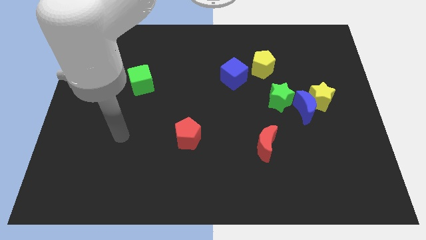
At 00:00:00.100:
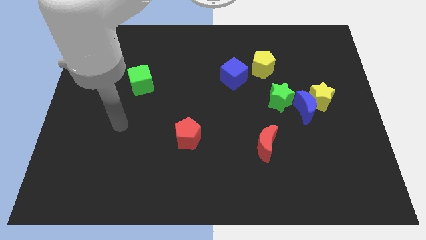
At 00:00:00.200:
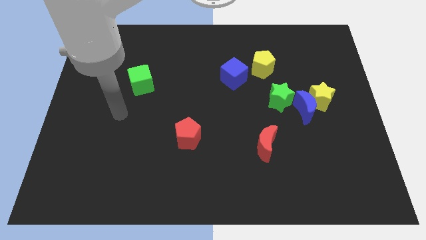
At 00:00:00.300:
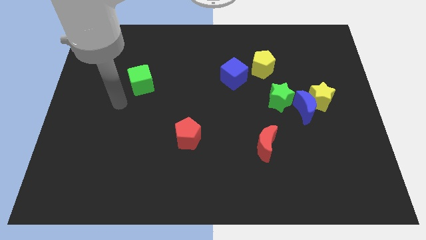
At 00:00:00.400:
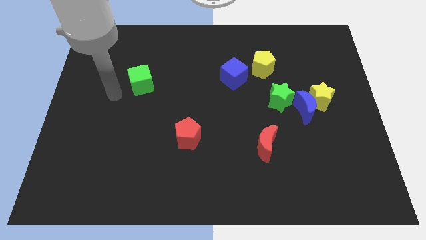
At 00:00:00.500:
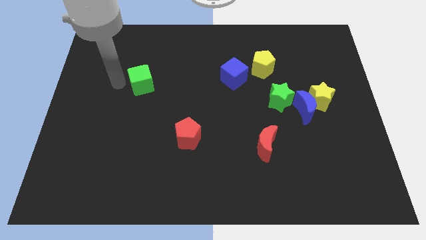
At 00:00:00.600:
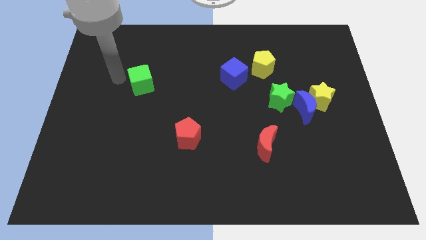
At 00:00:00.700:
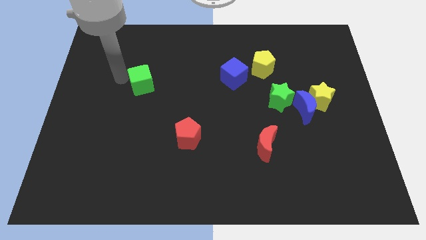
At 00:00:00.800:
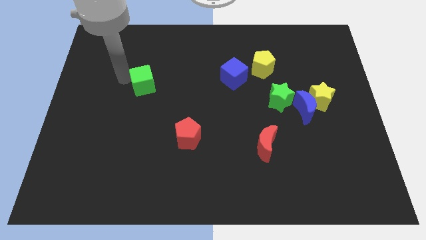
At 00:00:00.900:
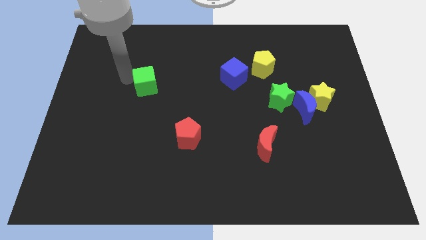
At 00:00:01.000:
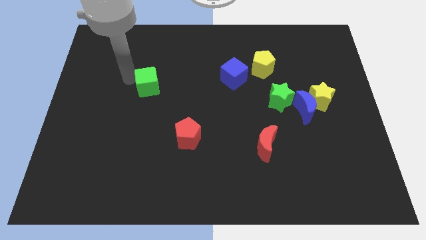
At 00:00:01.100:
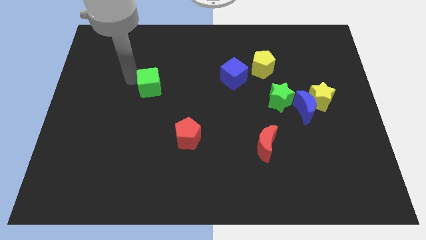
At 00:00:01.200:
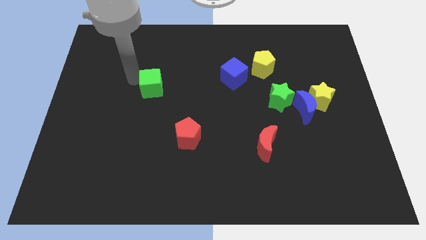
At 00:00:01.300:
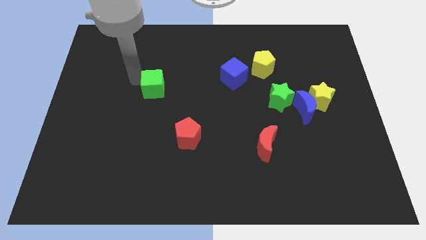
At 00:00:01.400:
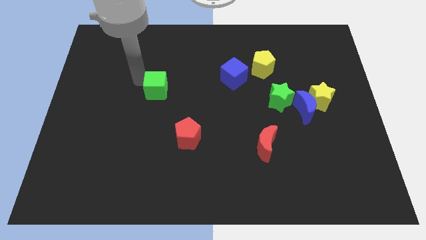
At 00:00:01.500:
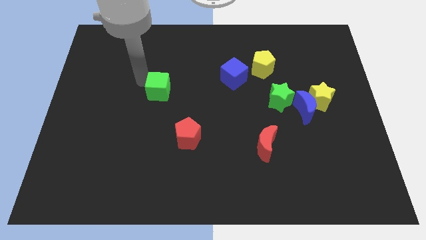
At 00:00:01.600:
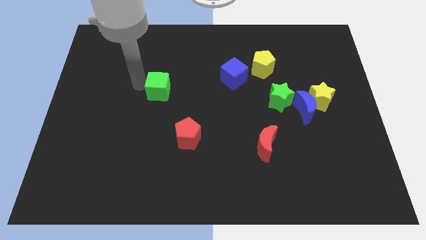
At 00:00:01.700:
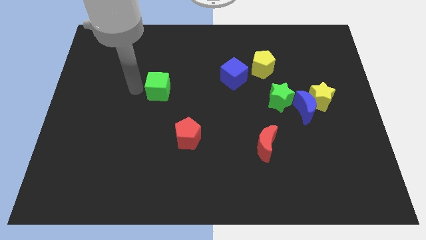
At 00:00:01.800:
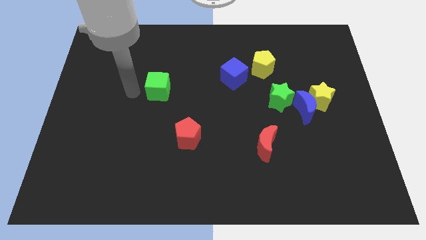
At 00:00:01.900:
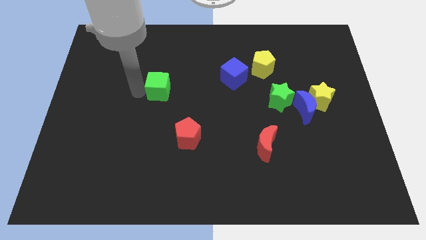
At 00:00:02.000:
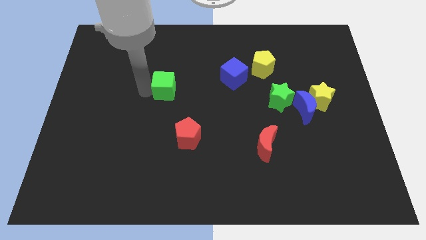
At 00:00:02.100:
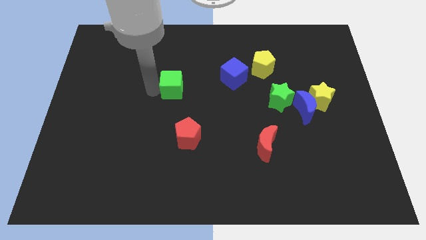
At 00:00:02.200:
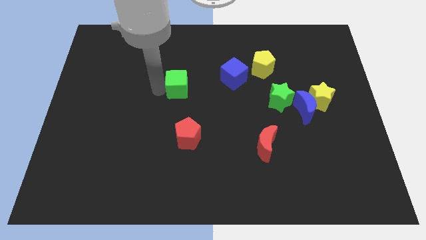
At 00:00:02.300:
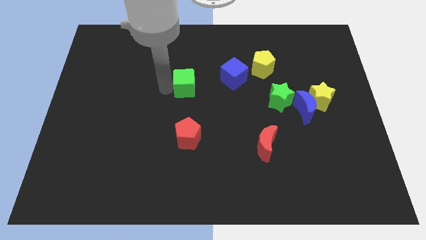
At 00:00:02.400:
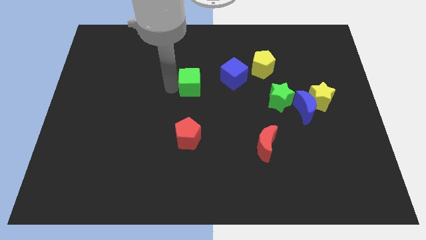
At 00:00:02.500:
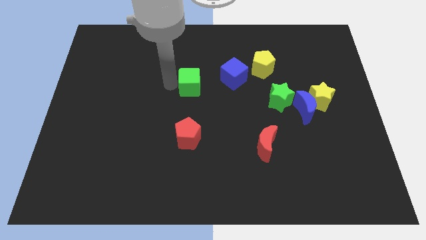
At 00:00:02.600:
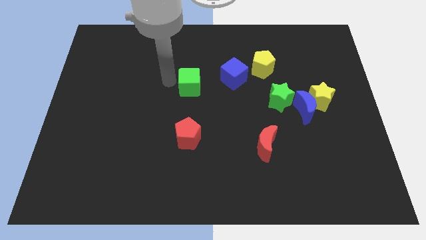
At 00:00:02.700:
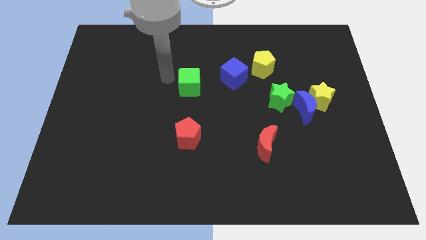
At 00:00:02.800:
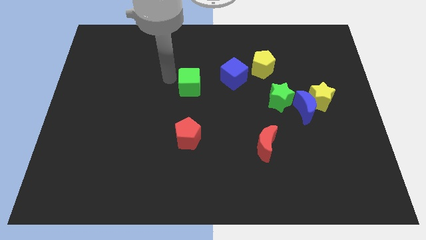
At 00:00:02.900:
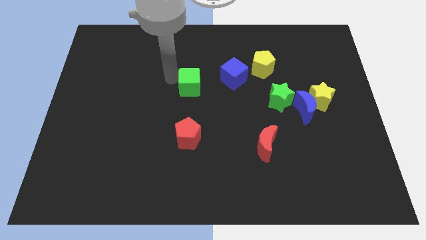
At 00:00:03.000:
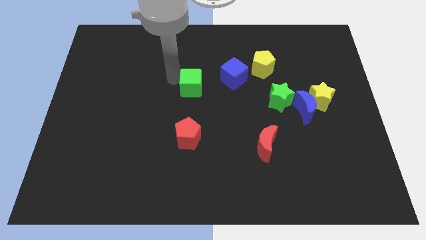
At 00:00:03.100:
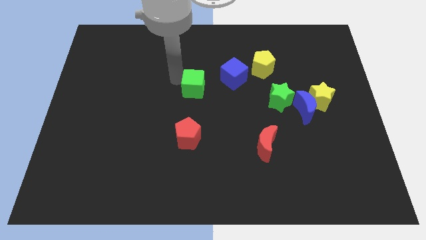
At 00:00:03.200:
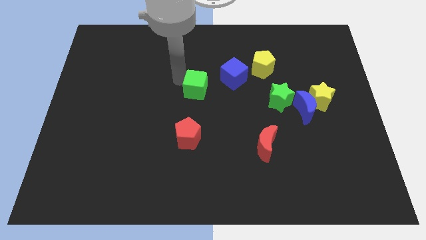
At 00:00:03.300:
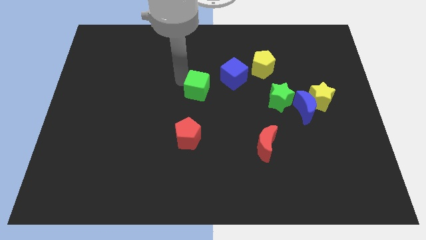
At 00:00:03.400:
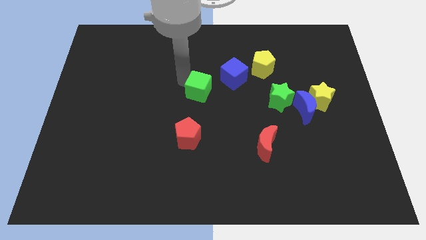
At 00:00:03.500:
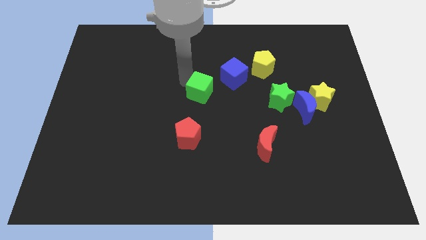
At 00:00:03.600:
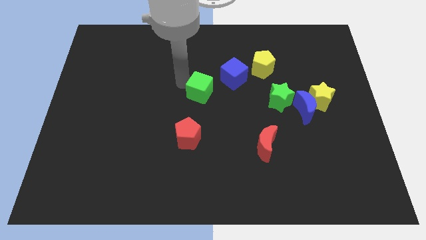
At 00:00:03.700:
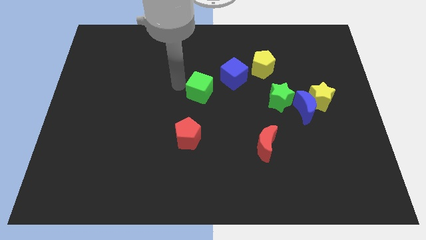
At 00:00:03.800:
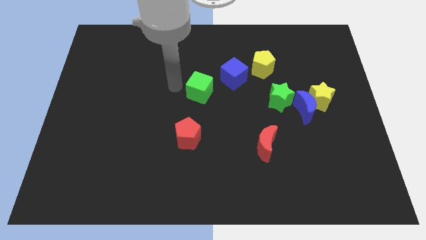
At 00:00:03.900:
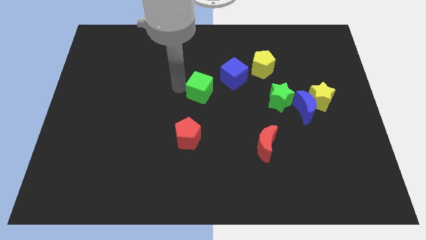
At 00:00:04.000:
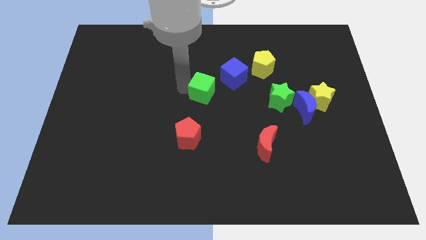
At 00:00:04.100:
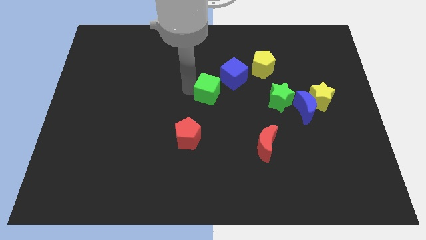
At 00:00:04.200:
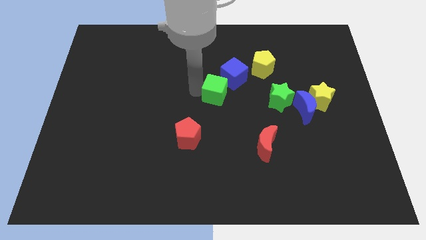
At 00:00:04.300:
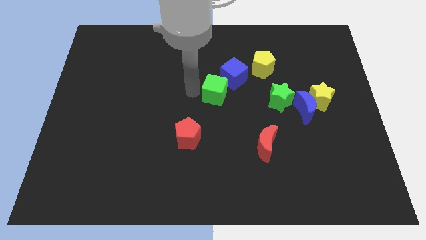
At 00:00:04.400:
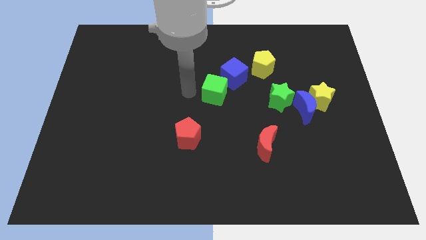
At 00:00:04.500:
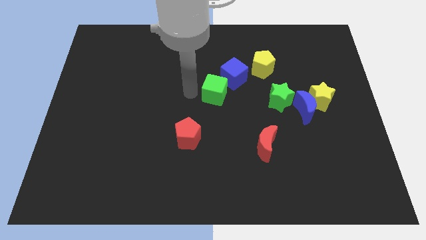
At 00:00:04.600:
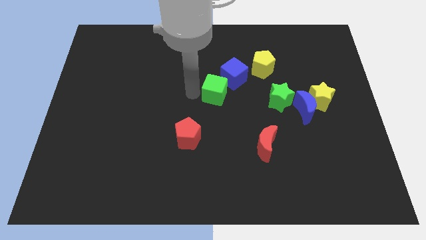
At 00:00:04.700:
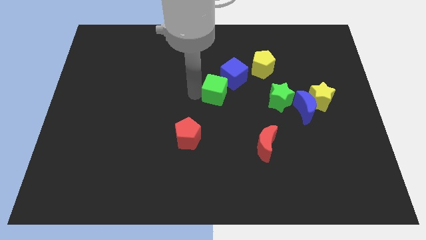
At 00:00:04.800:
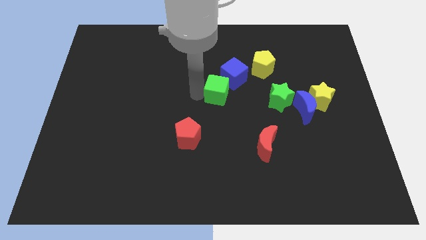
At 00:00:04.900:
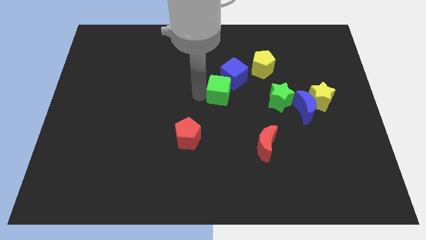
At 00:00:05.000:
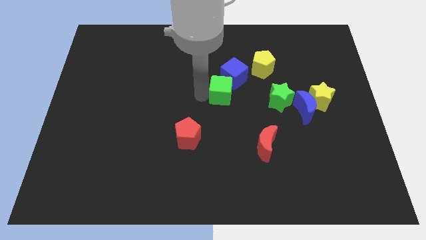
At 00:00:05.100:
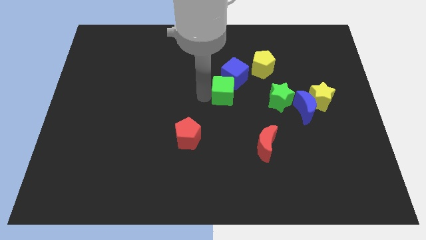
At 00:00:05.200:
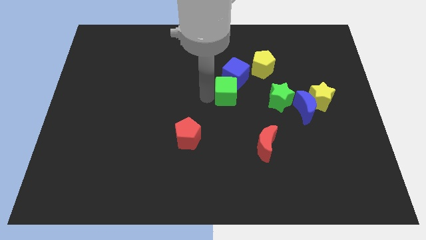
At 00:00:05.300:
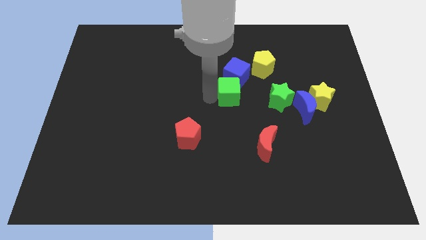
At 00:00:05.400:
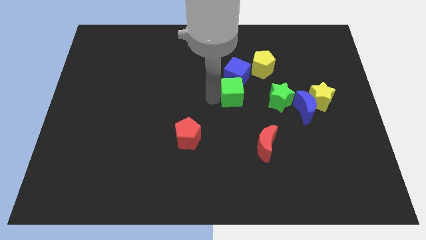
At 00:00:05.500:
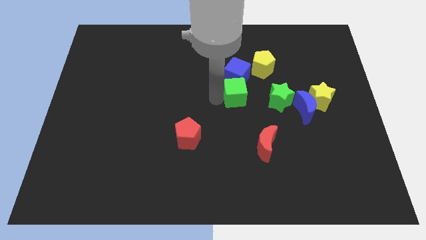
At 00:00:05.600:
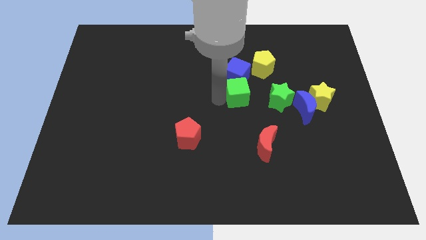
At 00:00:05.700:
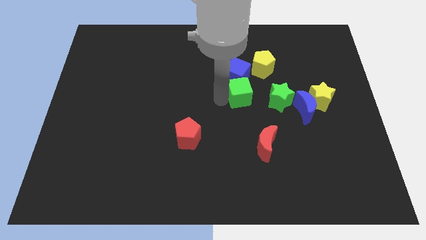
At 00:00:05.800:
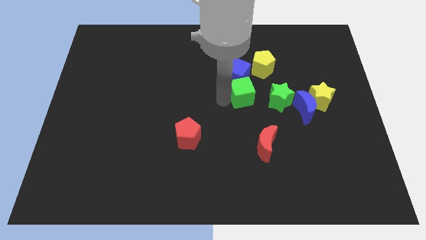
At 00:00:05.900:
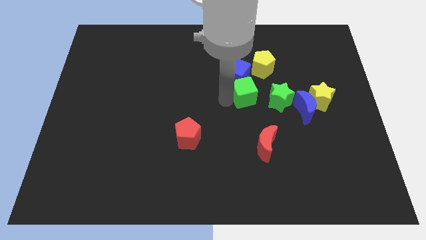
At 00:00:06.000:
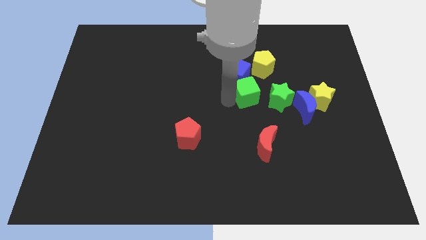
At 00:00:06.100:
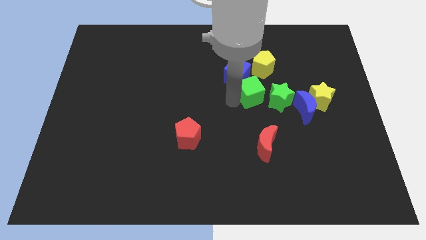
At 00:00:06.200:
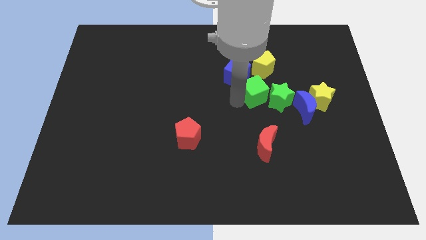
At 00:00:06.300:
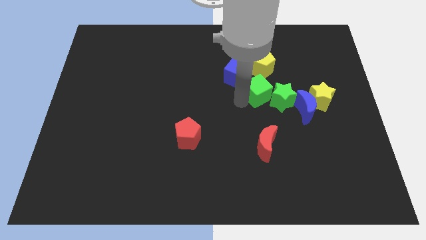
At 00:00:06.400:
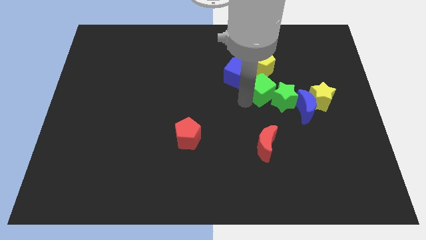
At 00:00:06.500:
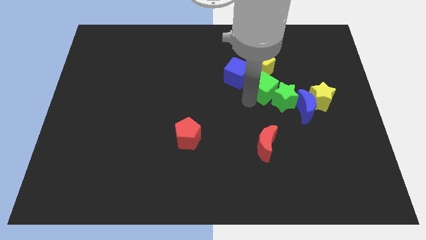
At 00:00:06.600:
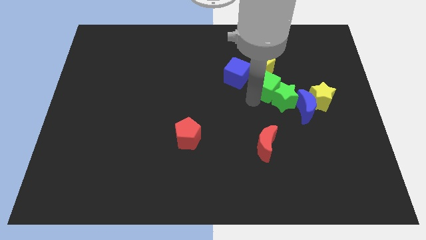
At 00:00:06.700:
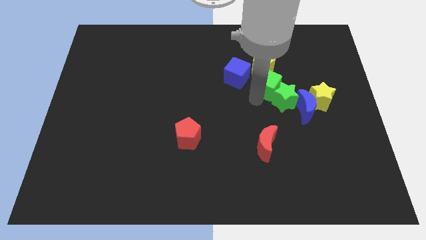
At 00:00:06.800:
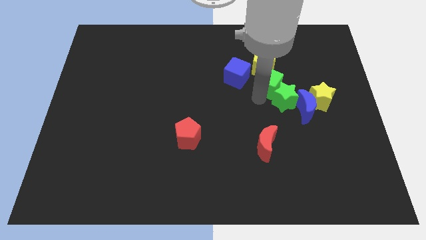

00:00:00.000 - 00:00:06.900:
move the green cube next to the yellow pentagon

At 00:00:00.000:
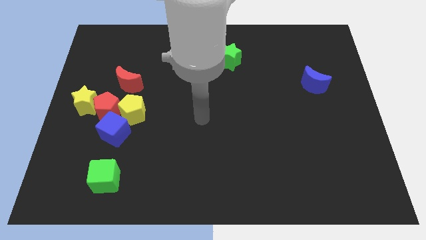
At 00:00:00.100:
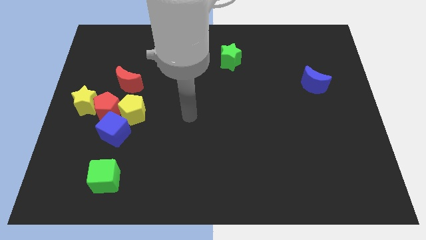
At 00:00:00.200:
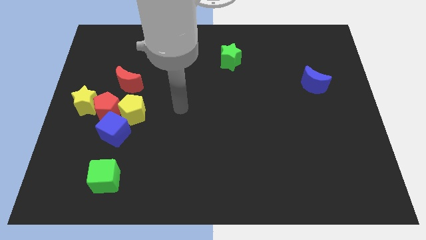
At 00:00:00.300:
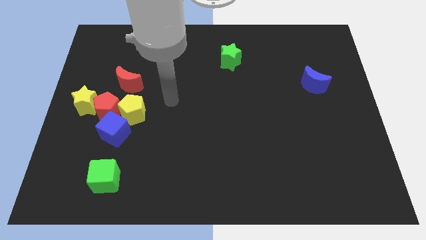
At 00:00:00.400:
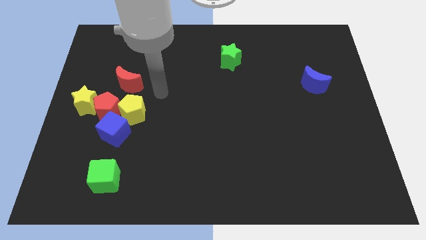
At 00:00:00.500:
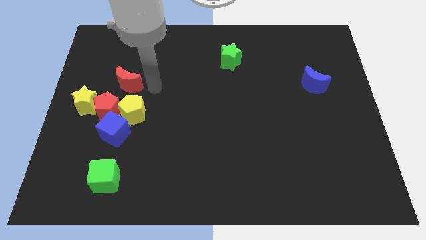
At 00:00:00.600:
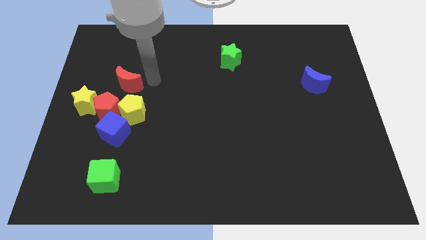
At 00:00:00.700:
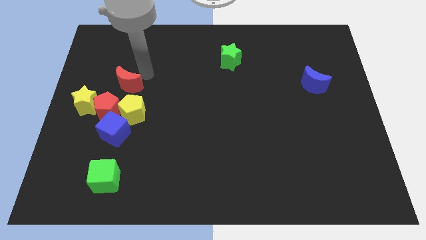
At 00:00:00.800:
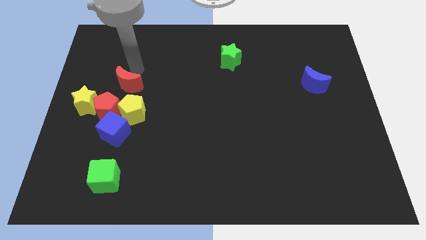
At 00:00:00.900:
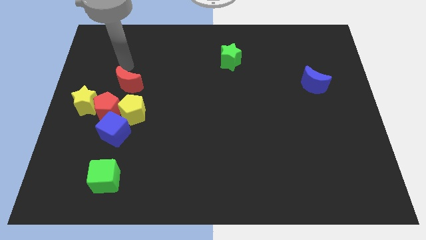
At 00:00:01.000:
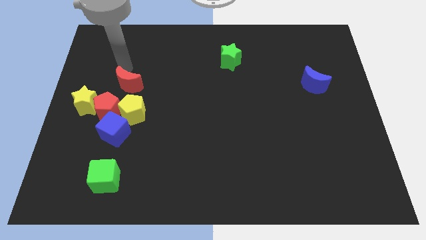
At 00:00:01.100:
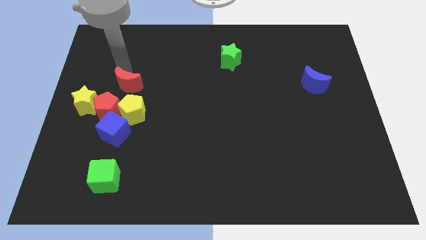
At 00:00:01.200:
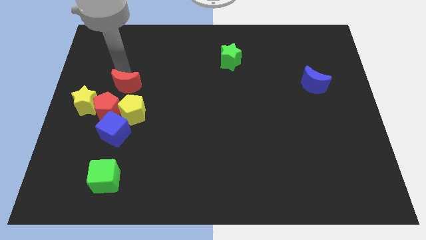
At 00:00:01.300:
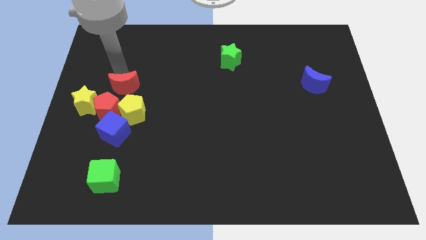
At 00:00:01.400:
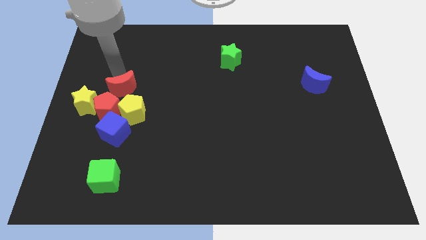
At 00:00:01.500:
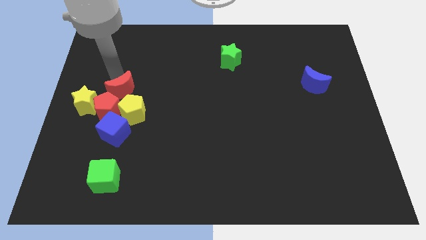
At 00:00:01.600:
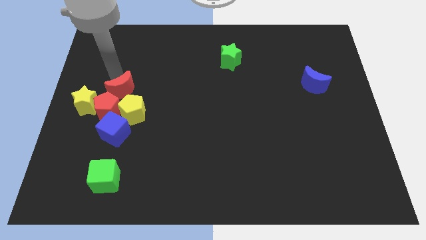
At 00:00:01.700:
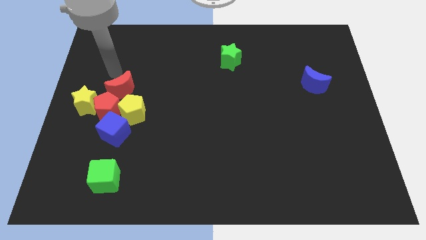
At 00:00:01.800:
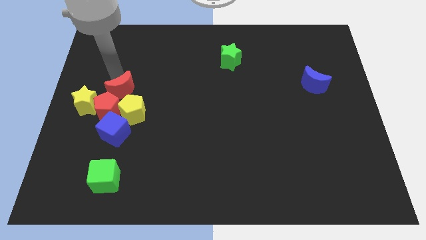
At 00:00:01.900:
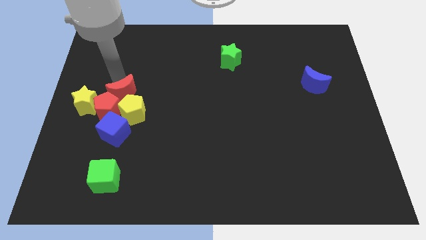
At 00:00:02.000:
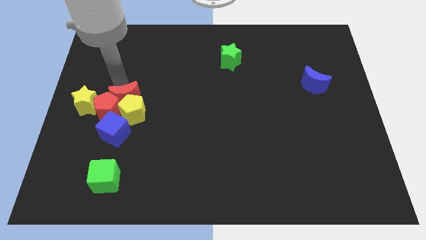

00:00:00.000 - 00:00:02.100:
move the red moon to the yellow pentagon
